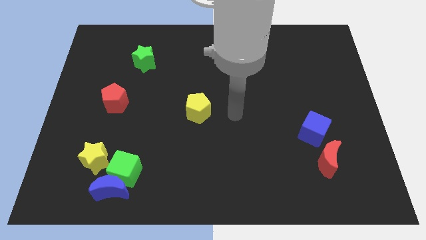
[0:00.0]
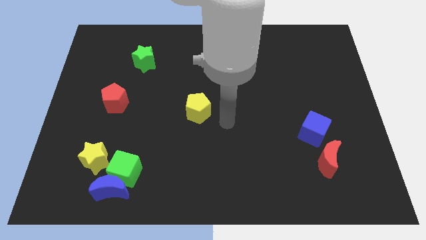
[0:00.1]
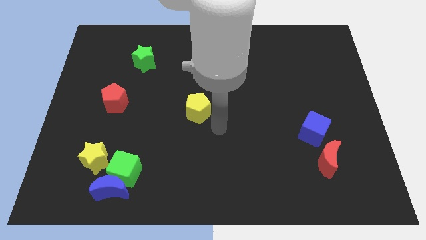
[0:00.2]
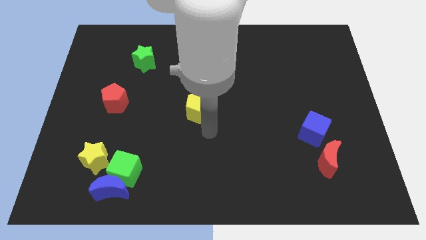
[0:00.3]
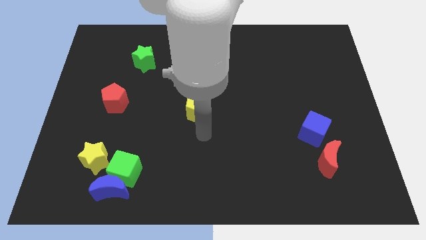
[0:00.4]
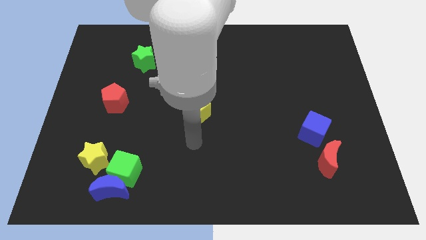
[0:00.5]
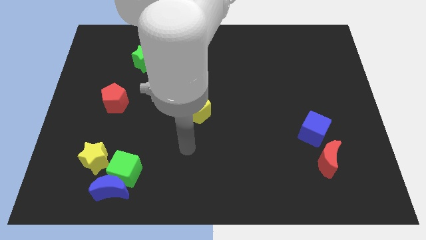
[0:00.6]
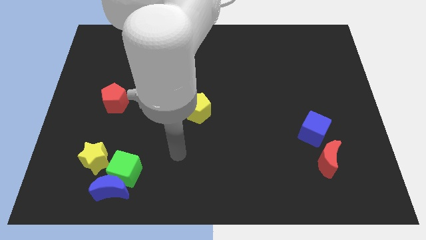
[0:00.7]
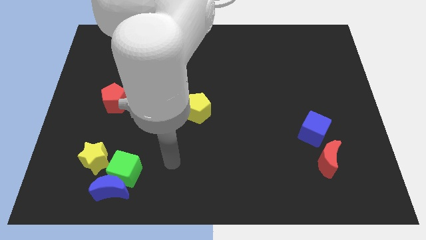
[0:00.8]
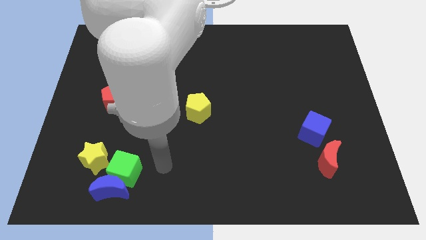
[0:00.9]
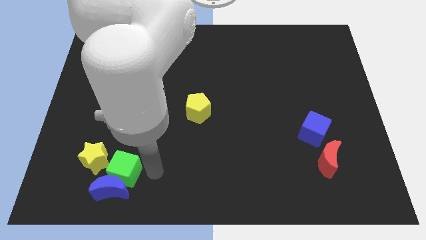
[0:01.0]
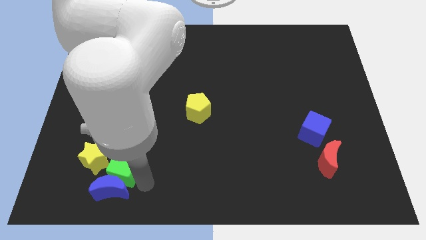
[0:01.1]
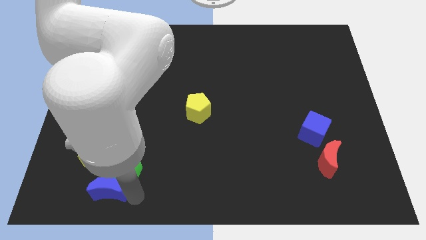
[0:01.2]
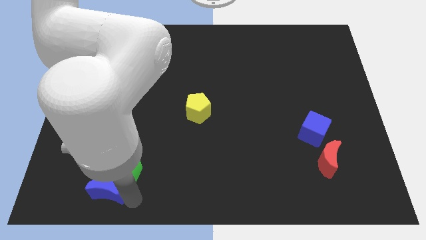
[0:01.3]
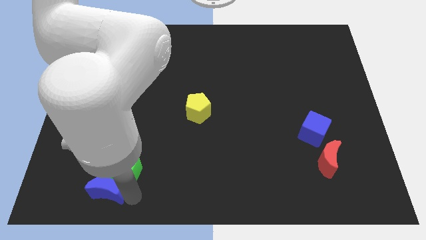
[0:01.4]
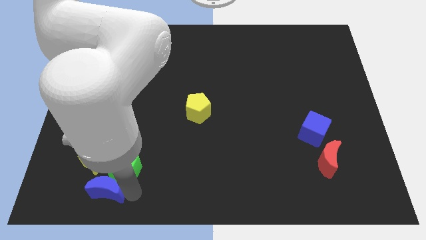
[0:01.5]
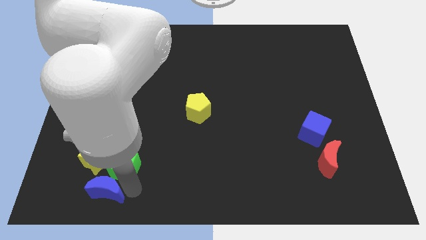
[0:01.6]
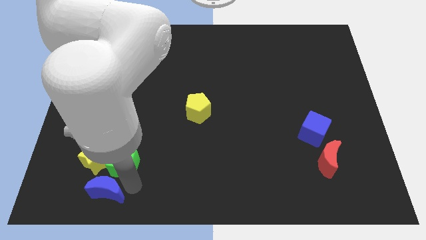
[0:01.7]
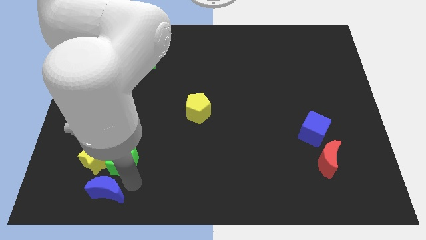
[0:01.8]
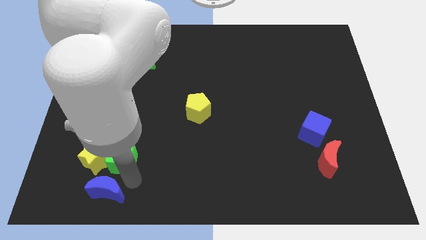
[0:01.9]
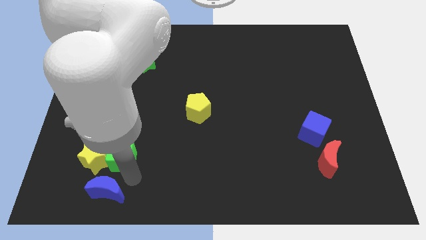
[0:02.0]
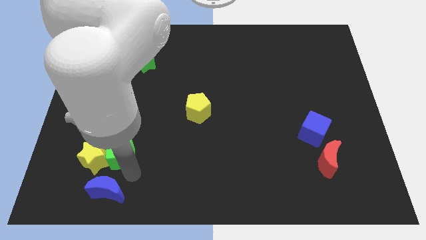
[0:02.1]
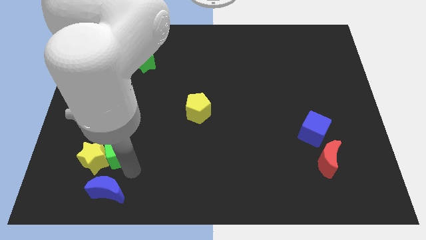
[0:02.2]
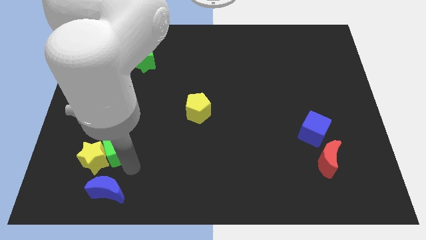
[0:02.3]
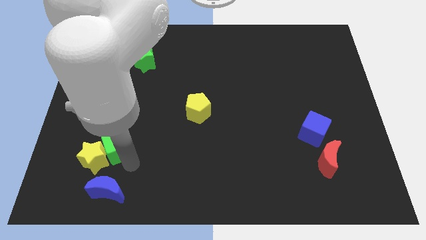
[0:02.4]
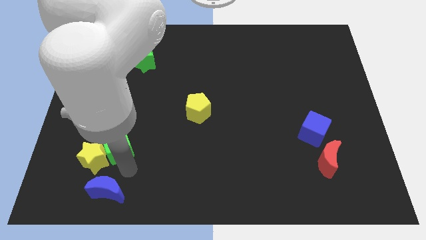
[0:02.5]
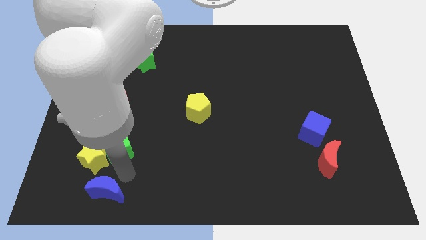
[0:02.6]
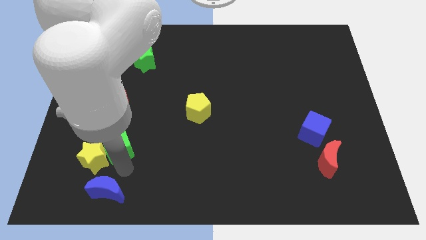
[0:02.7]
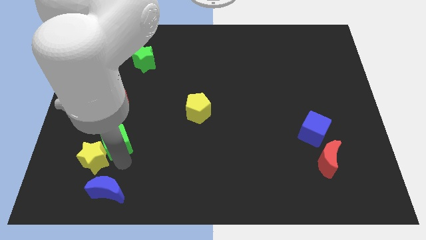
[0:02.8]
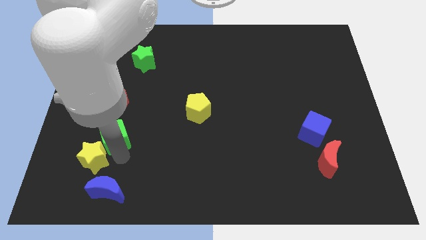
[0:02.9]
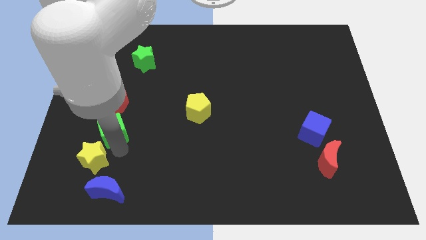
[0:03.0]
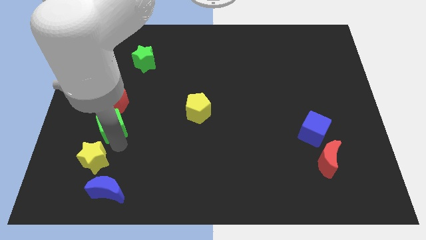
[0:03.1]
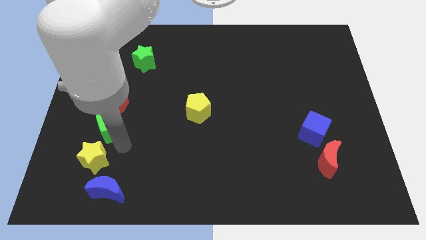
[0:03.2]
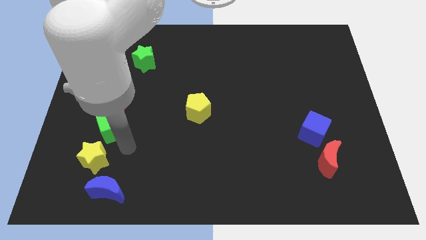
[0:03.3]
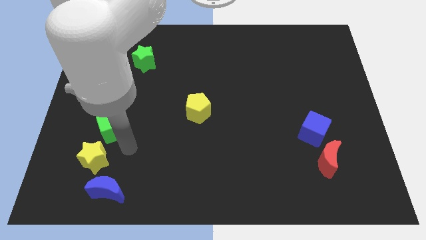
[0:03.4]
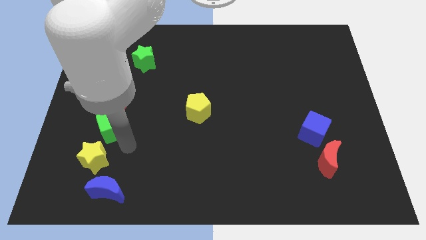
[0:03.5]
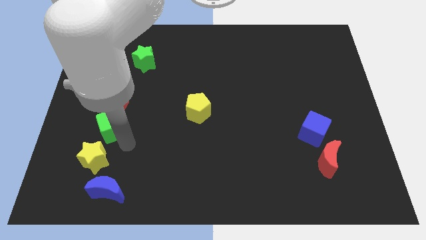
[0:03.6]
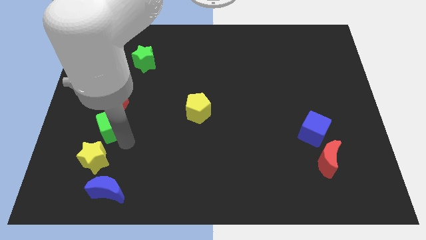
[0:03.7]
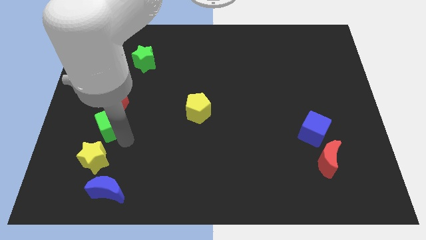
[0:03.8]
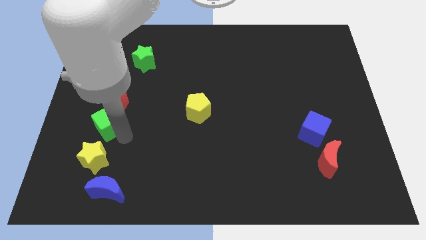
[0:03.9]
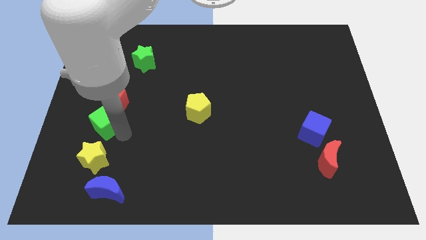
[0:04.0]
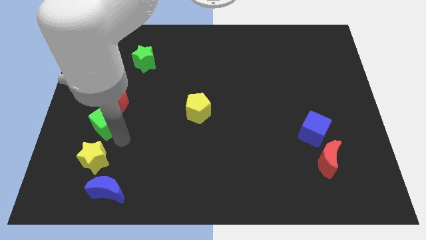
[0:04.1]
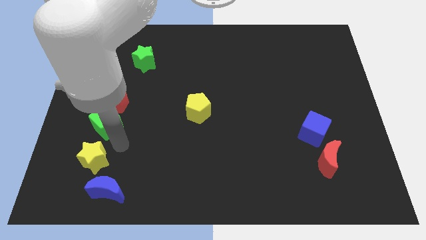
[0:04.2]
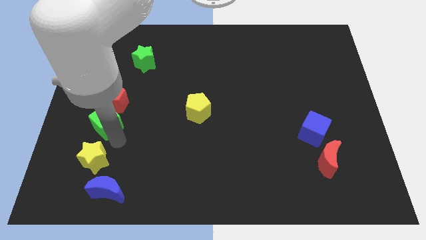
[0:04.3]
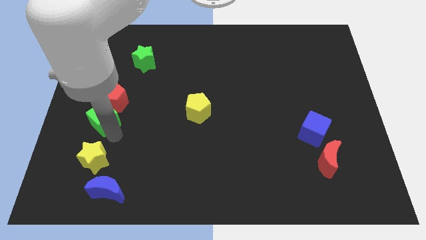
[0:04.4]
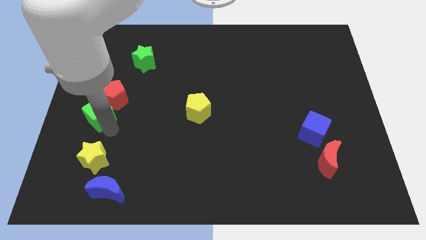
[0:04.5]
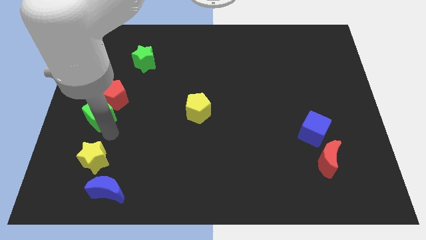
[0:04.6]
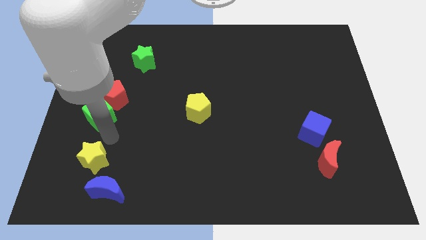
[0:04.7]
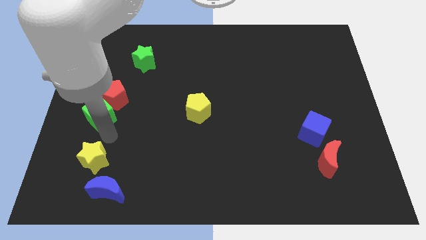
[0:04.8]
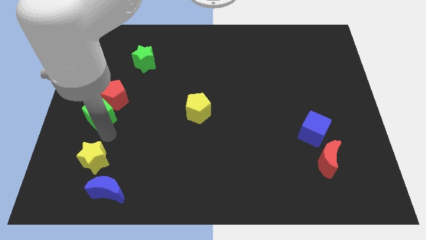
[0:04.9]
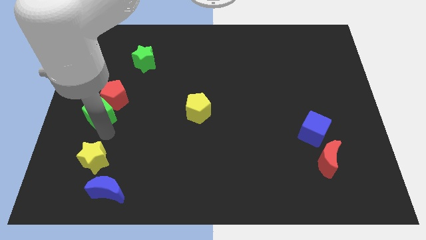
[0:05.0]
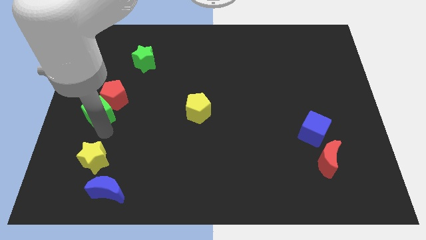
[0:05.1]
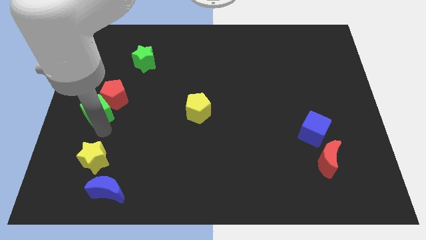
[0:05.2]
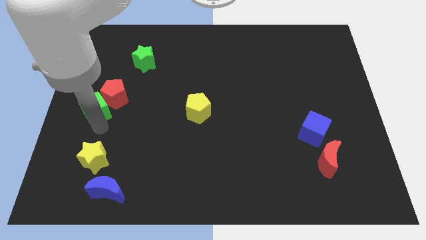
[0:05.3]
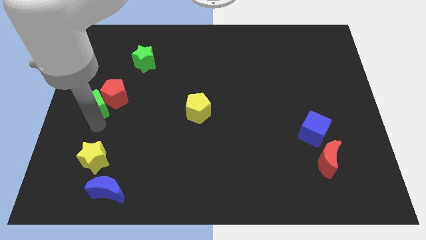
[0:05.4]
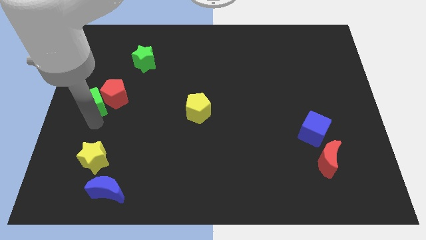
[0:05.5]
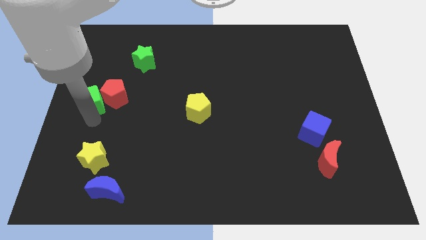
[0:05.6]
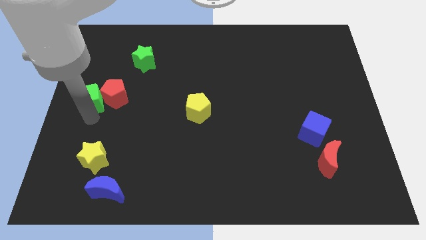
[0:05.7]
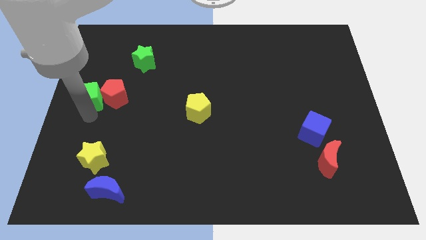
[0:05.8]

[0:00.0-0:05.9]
put the green cube to the top left side of the red pentagon

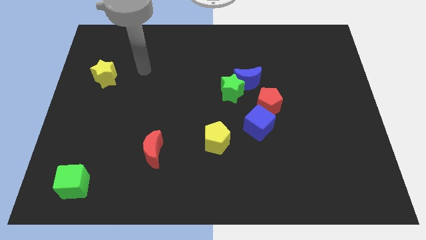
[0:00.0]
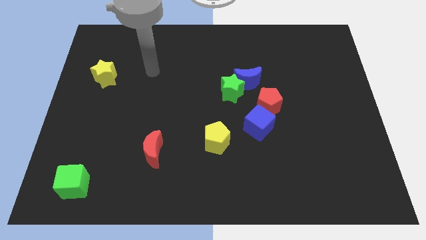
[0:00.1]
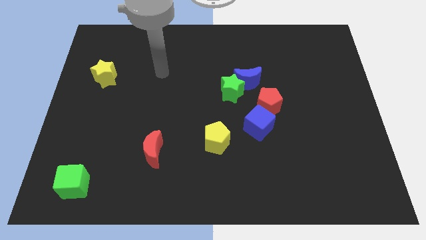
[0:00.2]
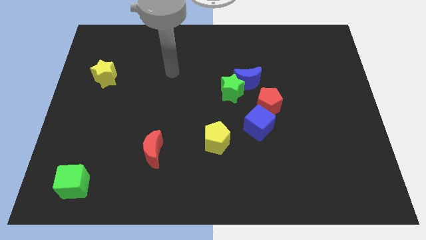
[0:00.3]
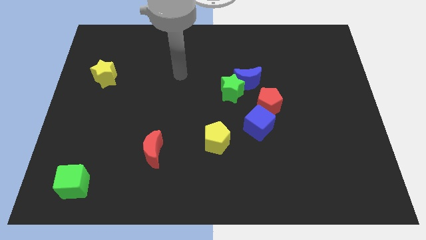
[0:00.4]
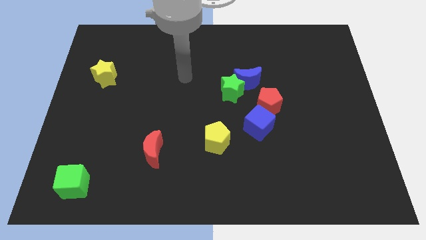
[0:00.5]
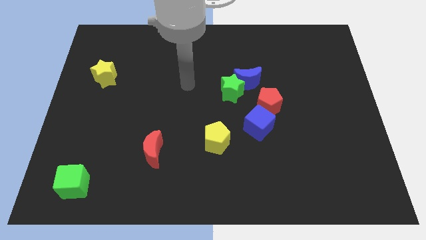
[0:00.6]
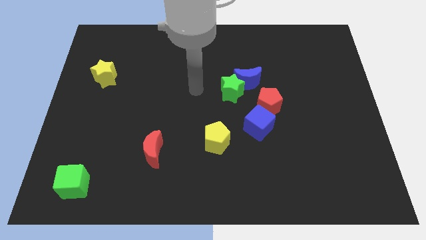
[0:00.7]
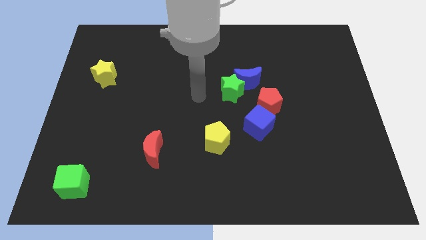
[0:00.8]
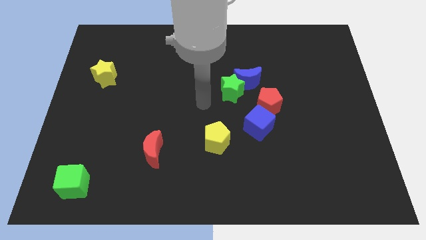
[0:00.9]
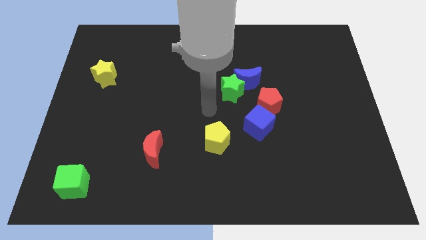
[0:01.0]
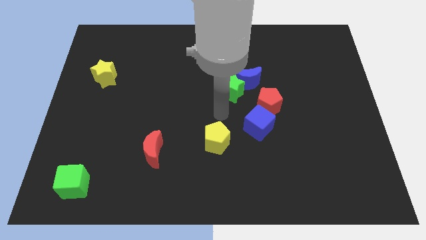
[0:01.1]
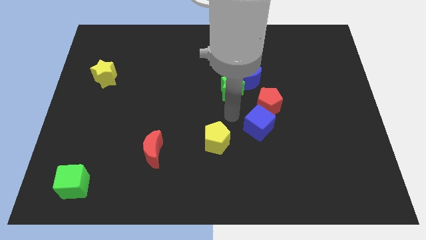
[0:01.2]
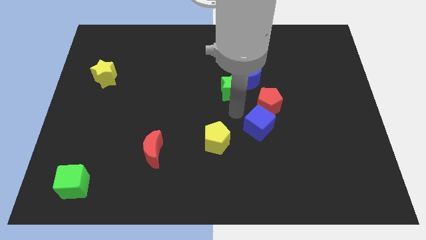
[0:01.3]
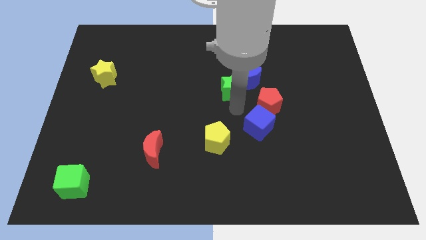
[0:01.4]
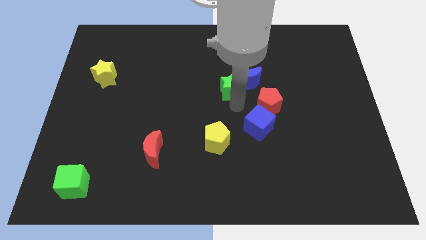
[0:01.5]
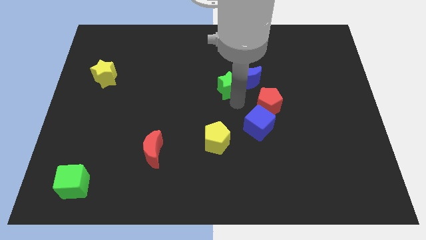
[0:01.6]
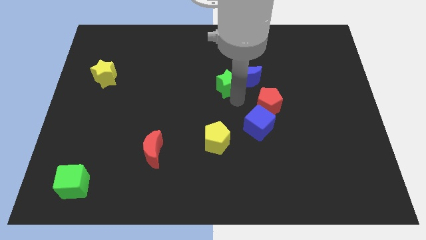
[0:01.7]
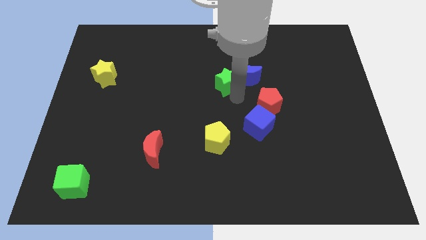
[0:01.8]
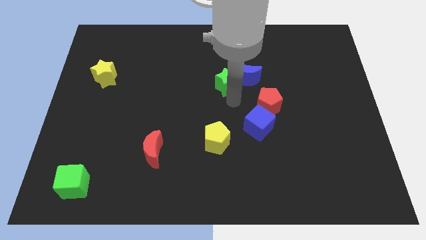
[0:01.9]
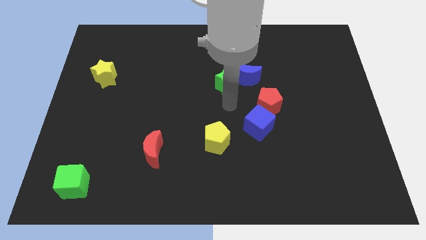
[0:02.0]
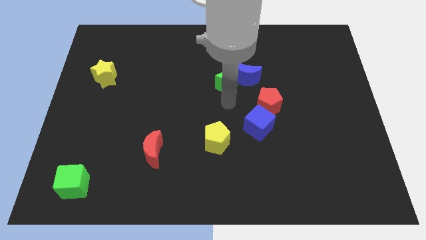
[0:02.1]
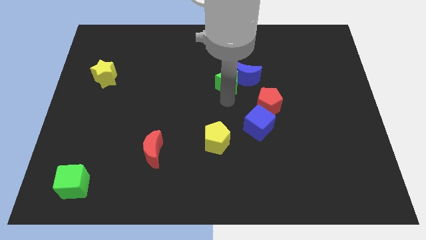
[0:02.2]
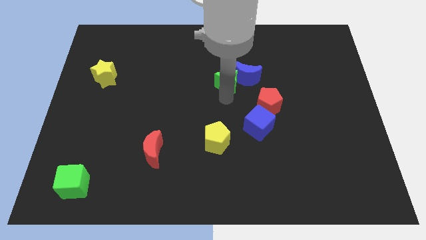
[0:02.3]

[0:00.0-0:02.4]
put the green star to the top left of the blue moon
